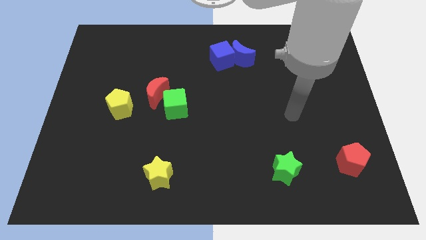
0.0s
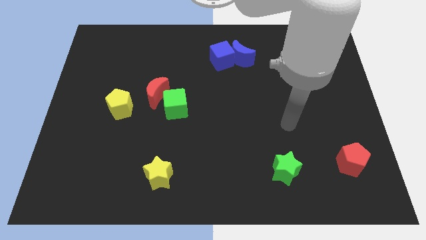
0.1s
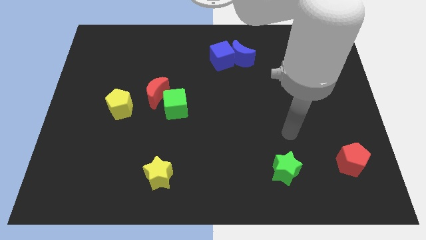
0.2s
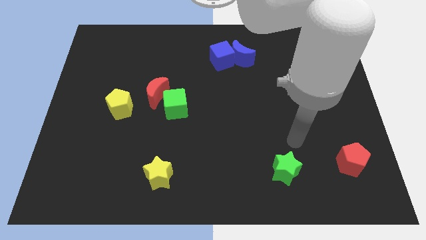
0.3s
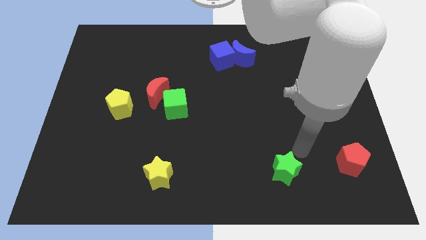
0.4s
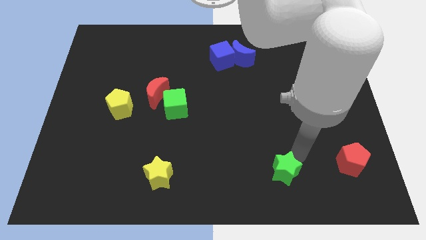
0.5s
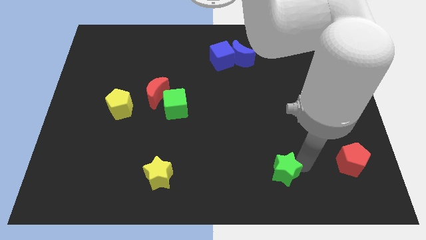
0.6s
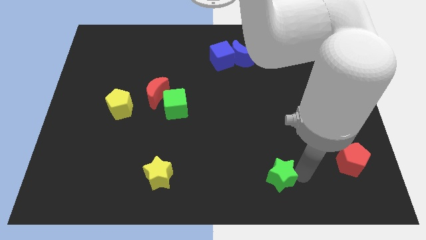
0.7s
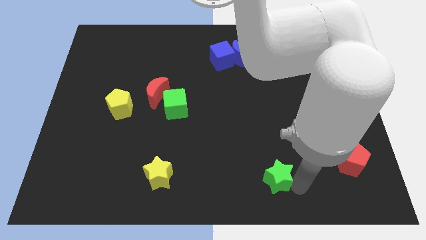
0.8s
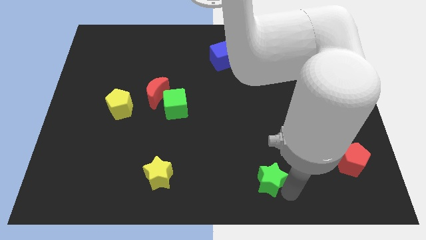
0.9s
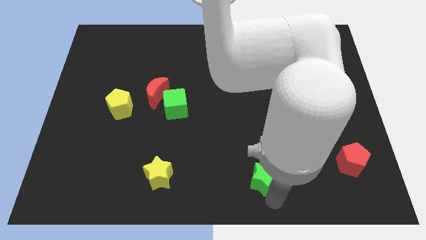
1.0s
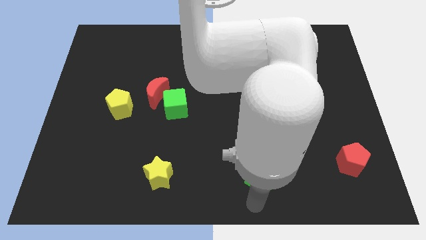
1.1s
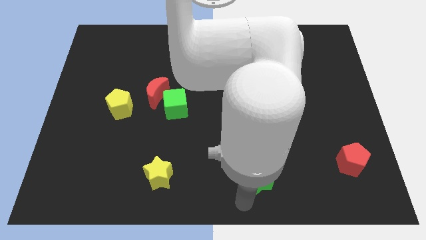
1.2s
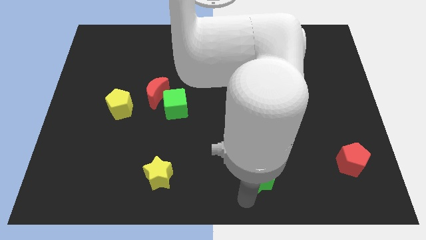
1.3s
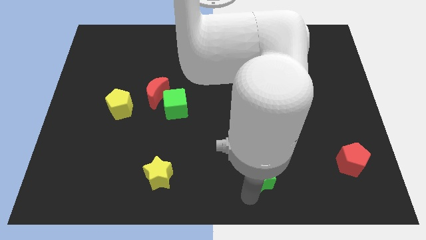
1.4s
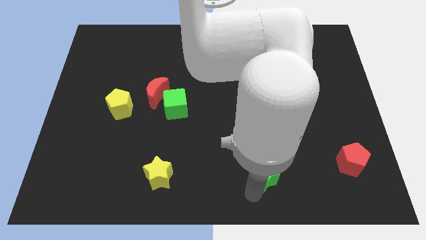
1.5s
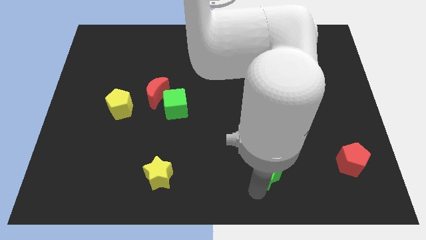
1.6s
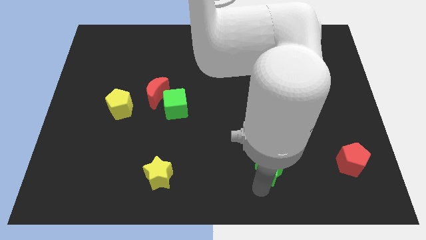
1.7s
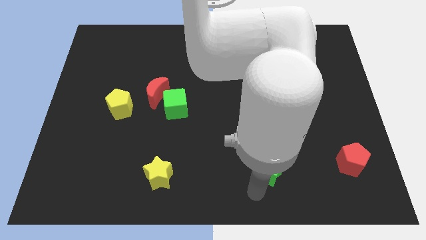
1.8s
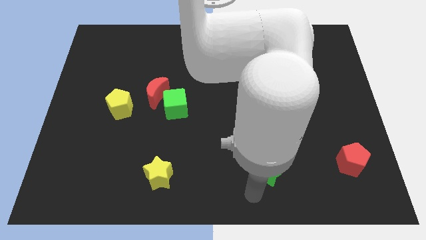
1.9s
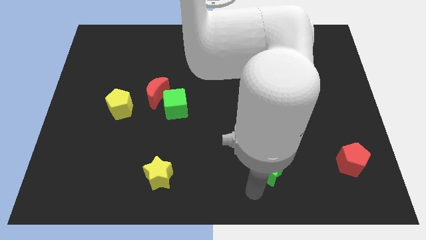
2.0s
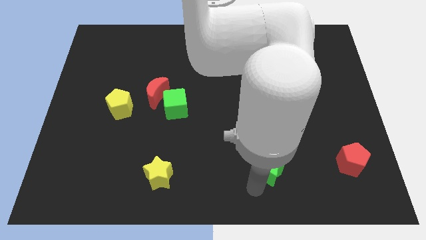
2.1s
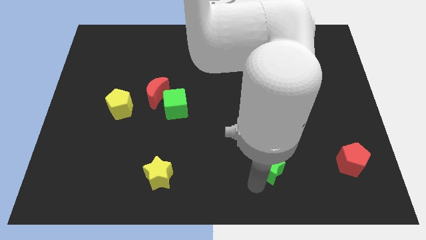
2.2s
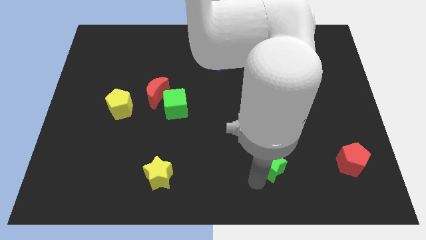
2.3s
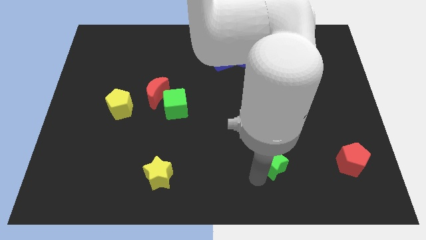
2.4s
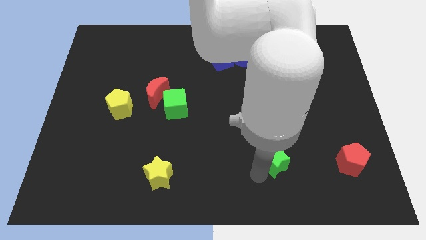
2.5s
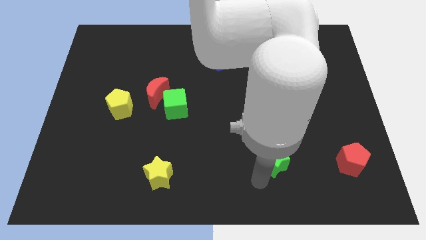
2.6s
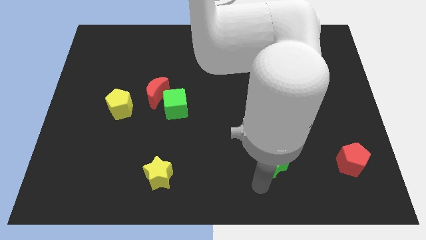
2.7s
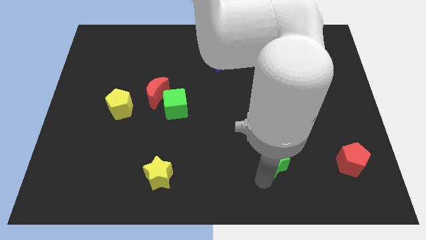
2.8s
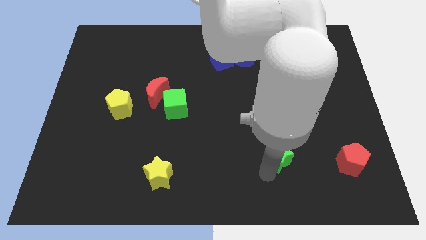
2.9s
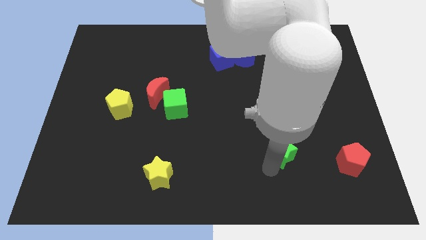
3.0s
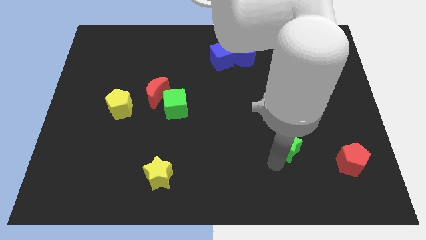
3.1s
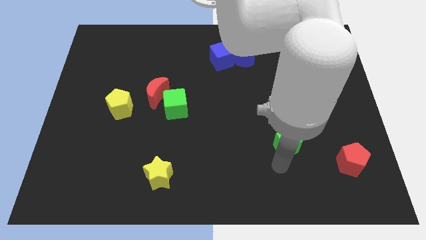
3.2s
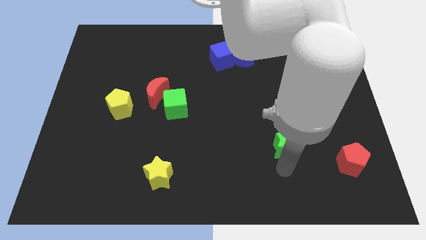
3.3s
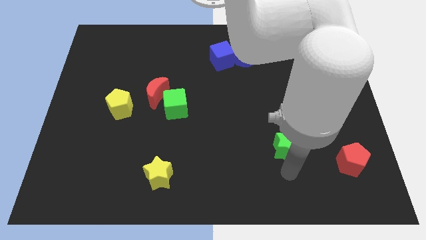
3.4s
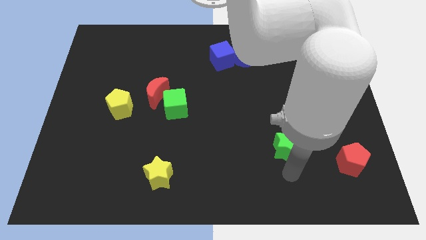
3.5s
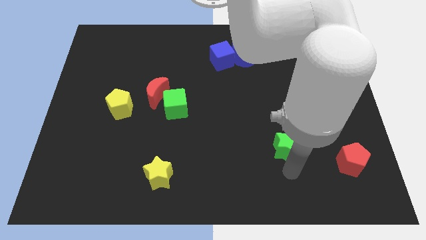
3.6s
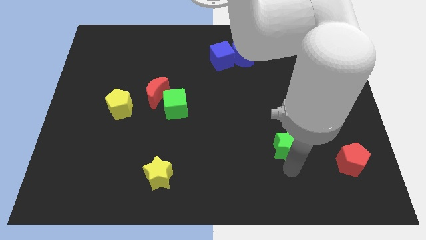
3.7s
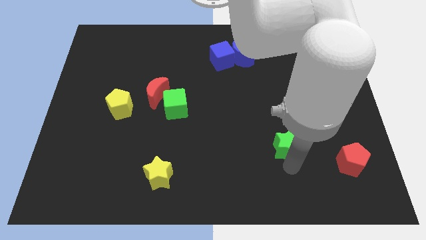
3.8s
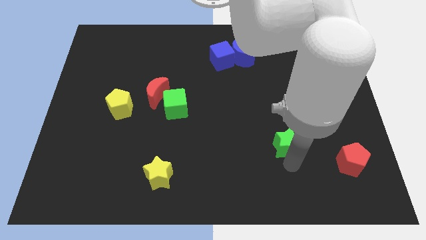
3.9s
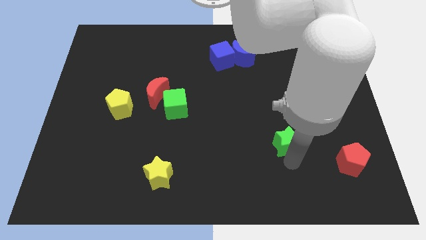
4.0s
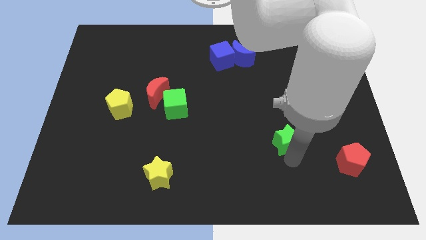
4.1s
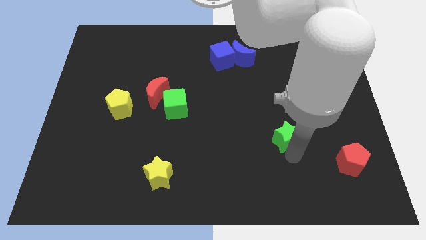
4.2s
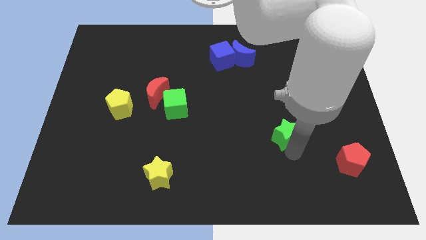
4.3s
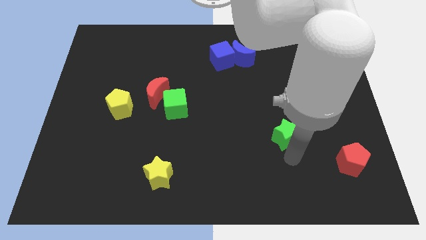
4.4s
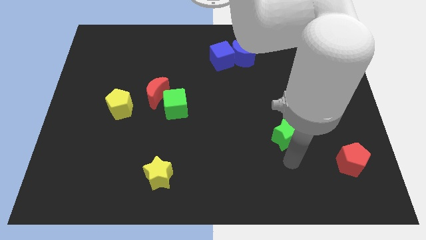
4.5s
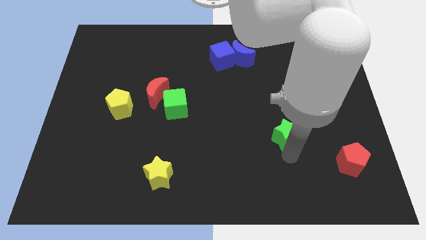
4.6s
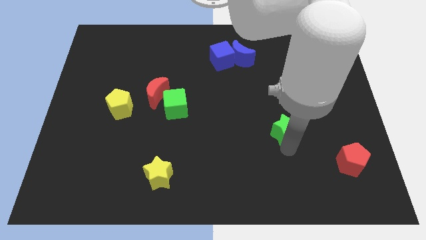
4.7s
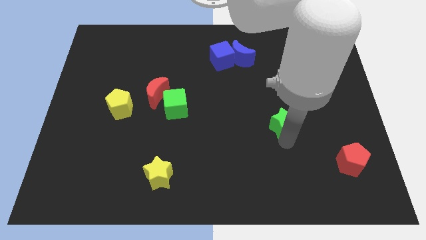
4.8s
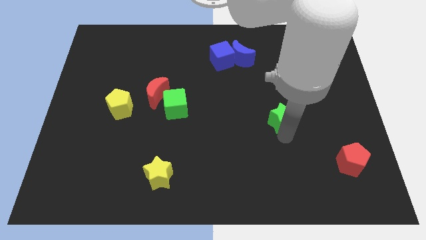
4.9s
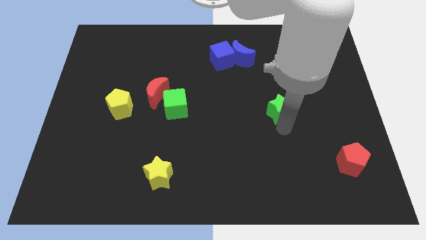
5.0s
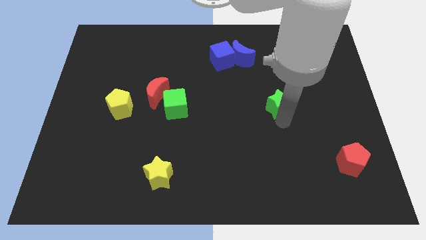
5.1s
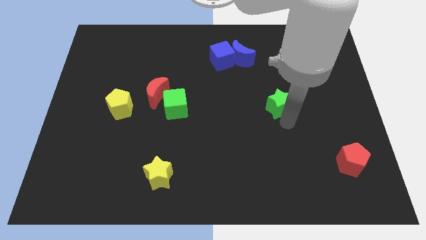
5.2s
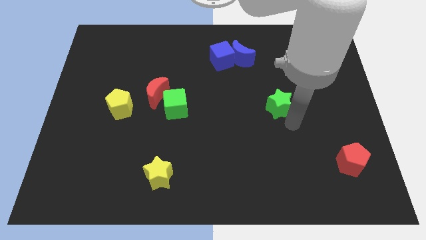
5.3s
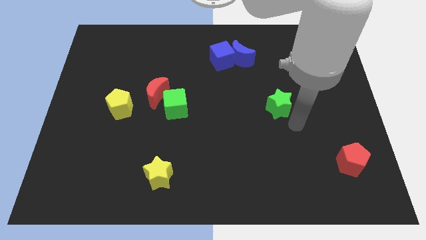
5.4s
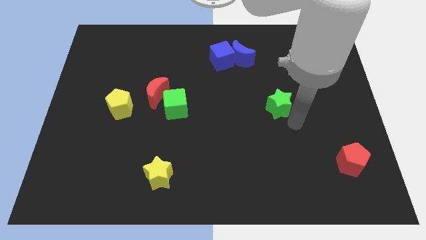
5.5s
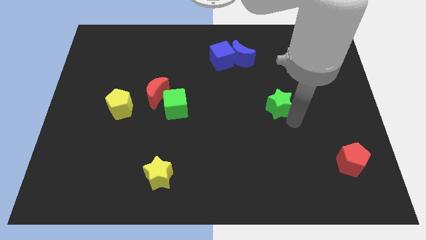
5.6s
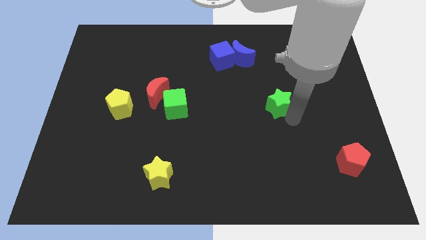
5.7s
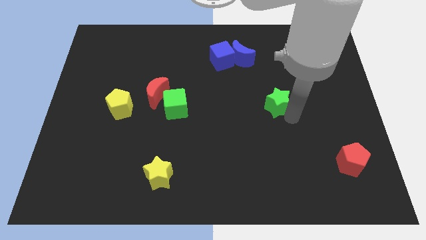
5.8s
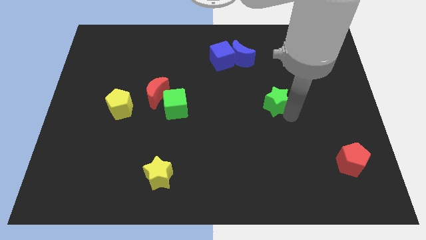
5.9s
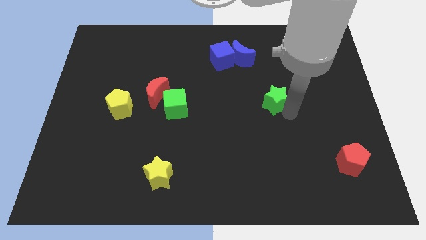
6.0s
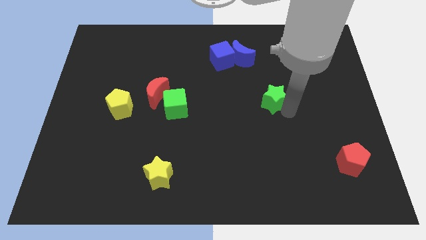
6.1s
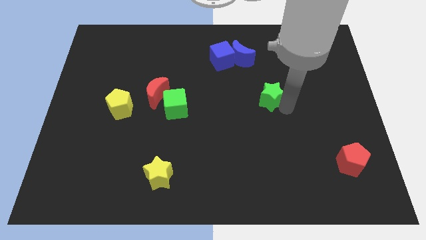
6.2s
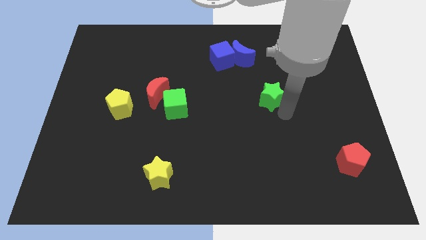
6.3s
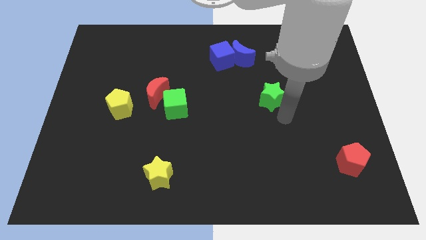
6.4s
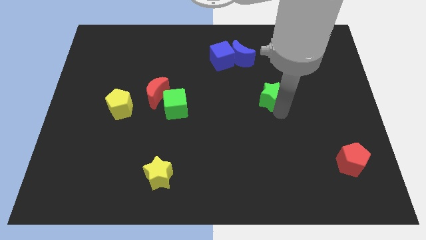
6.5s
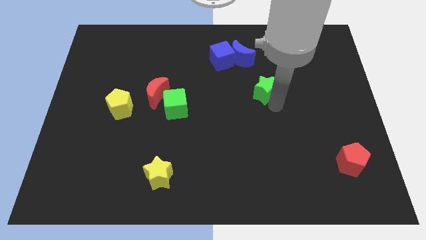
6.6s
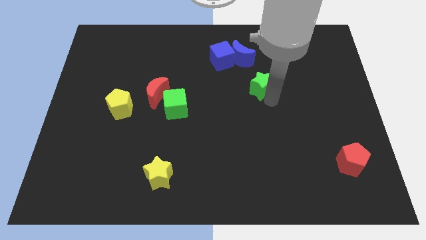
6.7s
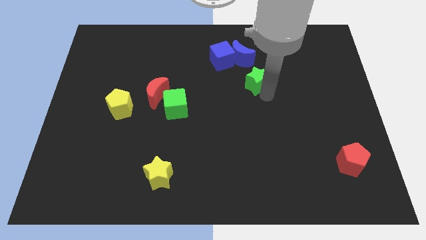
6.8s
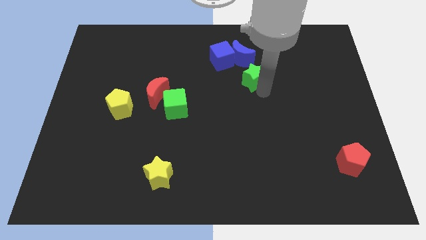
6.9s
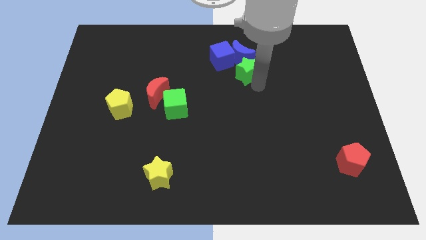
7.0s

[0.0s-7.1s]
put the green star next to the blue moon
